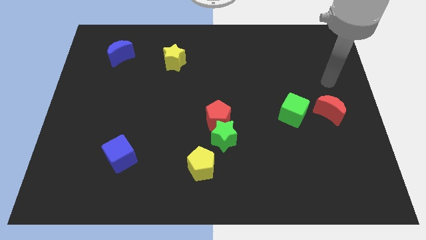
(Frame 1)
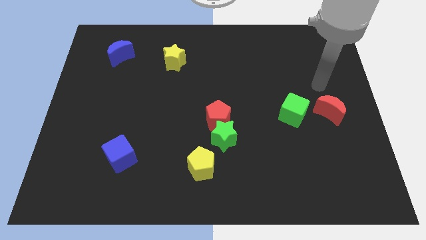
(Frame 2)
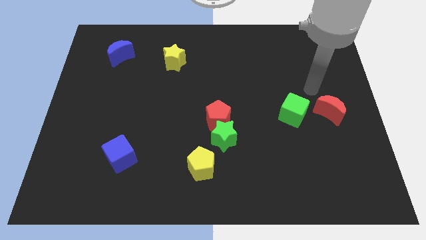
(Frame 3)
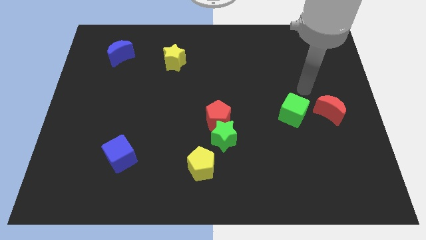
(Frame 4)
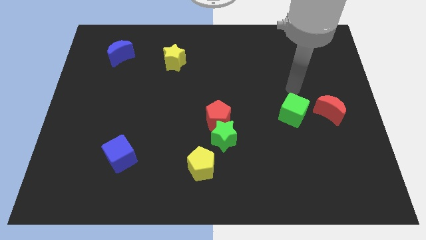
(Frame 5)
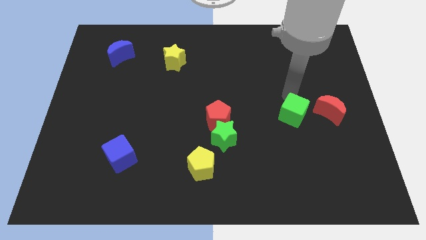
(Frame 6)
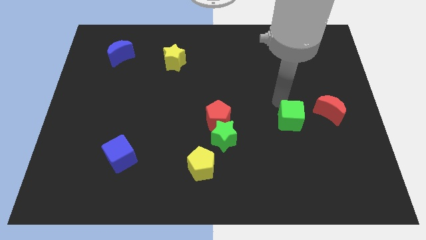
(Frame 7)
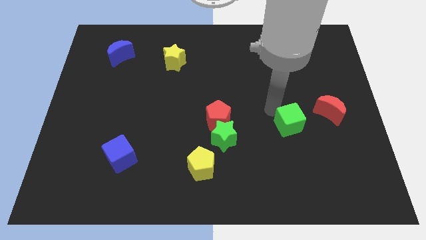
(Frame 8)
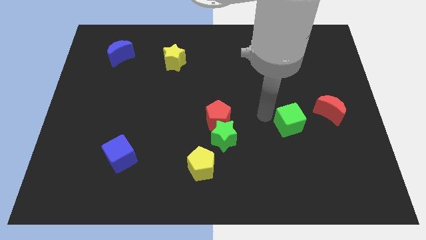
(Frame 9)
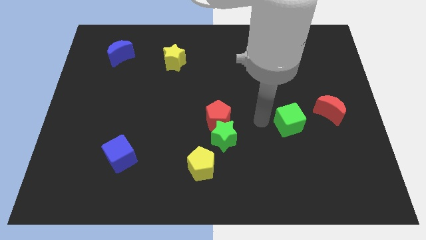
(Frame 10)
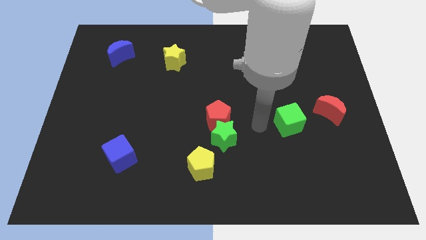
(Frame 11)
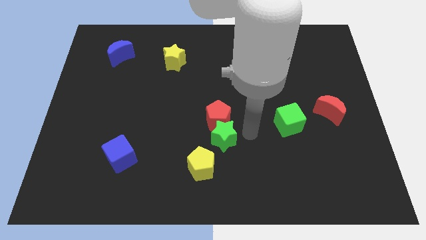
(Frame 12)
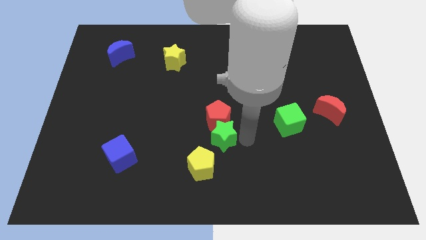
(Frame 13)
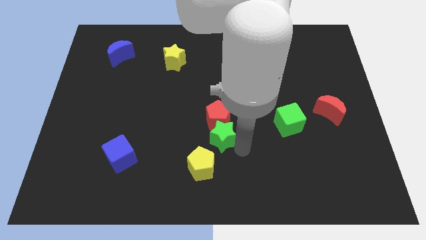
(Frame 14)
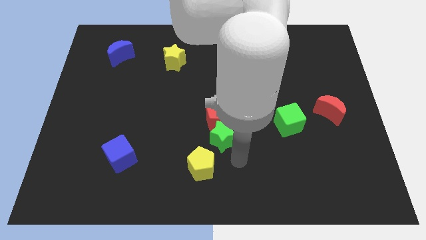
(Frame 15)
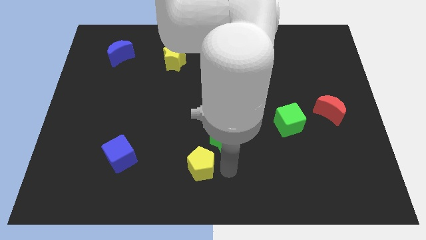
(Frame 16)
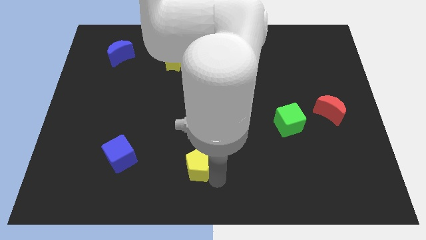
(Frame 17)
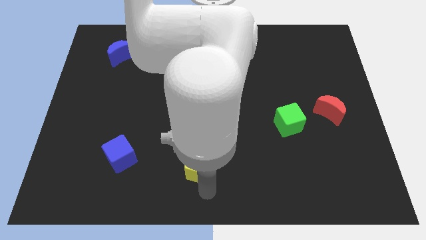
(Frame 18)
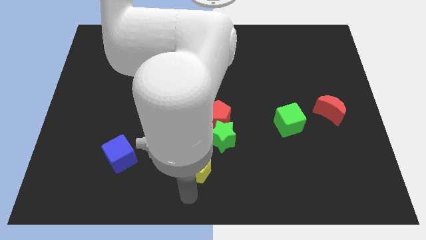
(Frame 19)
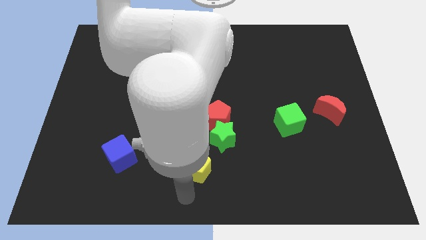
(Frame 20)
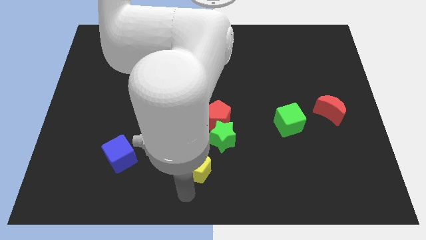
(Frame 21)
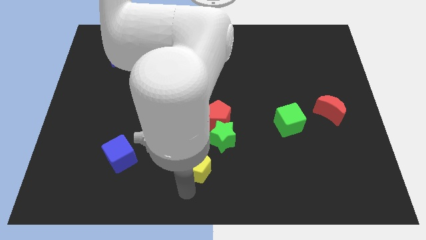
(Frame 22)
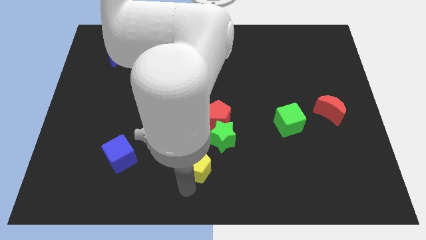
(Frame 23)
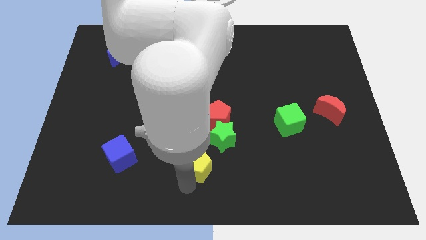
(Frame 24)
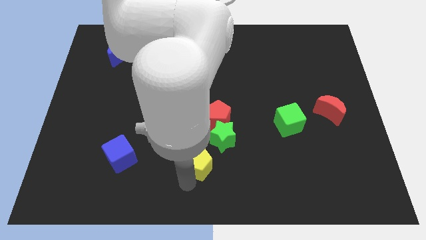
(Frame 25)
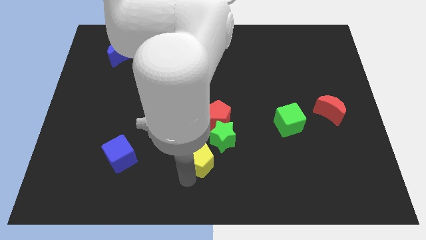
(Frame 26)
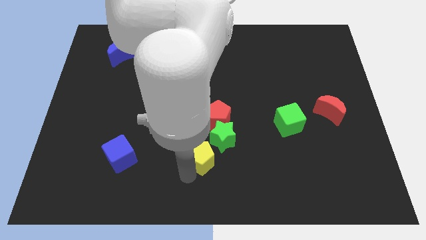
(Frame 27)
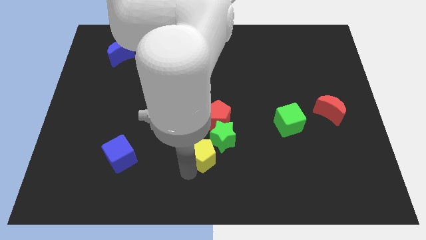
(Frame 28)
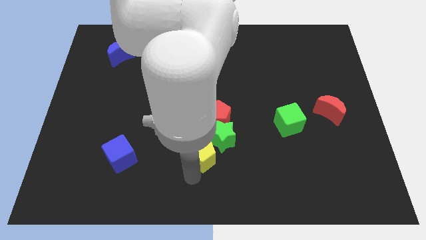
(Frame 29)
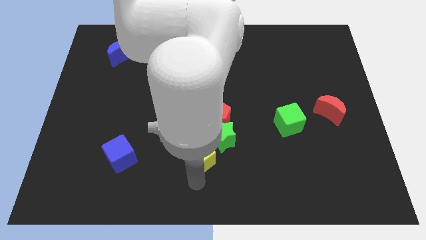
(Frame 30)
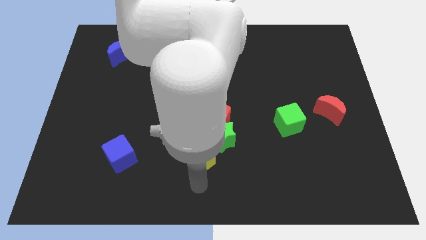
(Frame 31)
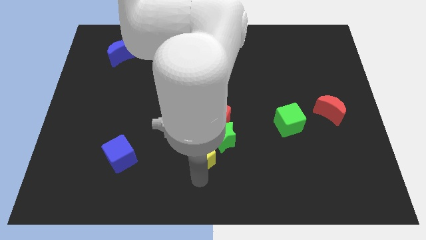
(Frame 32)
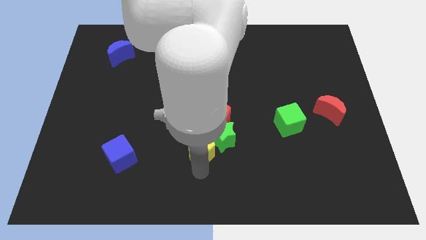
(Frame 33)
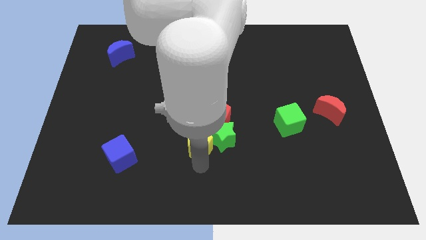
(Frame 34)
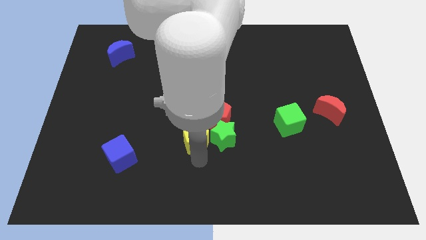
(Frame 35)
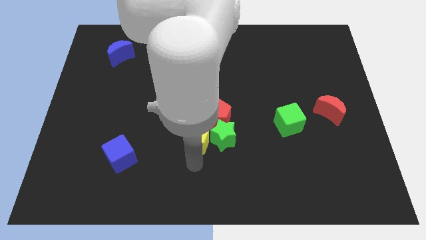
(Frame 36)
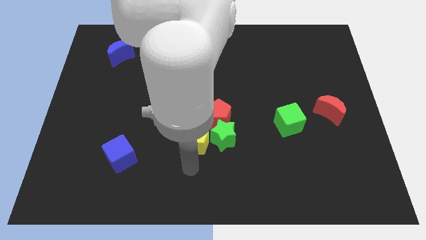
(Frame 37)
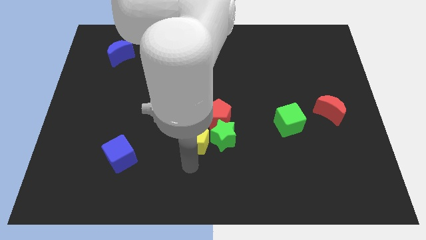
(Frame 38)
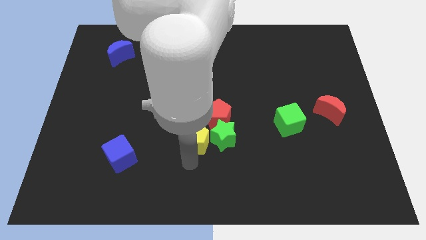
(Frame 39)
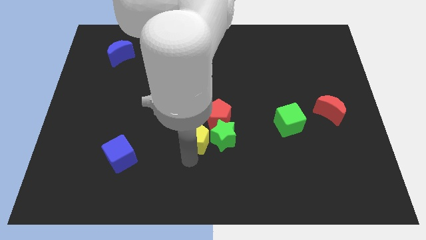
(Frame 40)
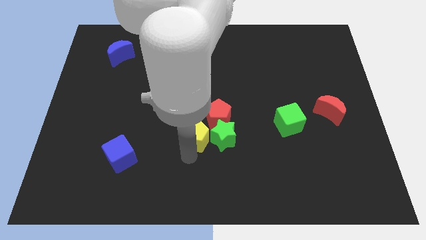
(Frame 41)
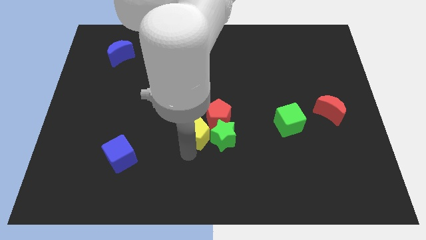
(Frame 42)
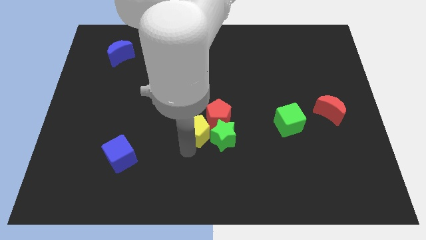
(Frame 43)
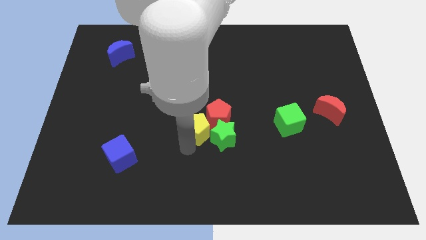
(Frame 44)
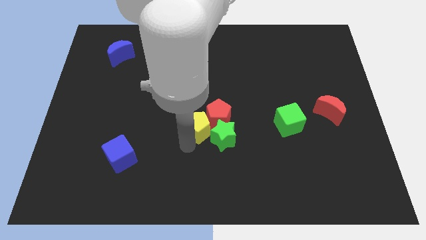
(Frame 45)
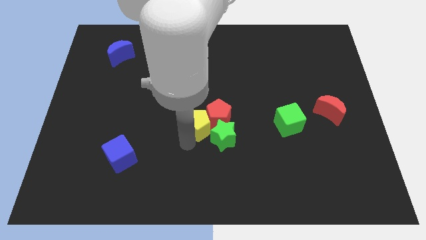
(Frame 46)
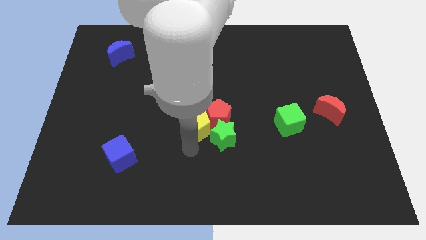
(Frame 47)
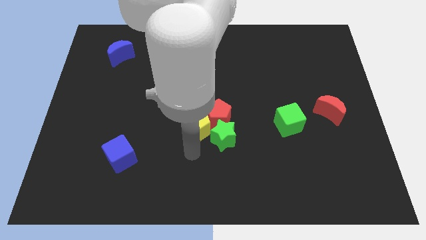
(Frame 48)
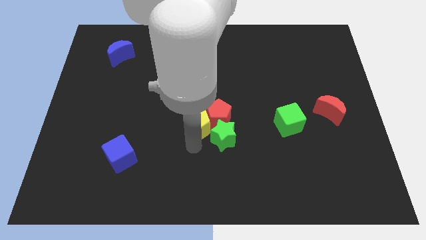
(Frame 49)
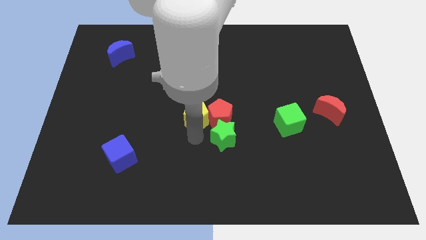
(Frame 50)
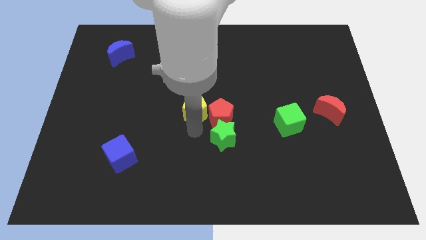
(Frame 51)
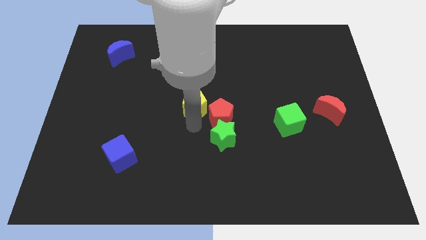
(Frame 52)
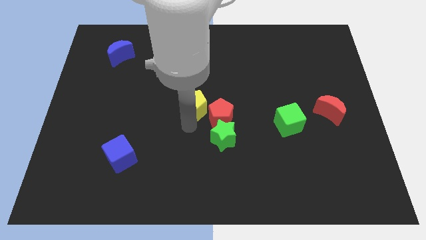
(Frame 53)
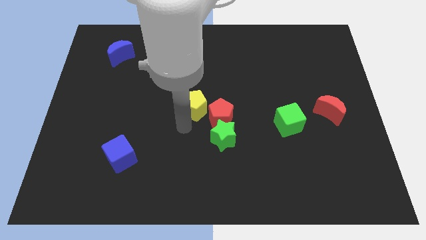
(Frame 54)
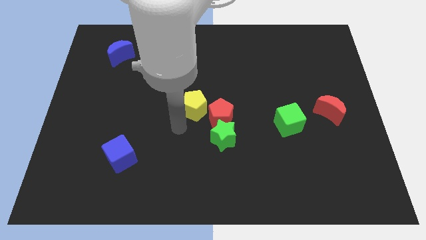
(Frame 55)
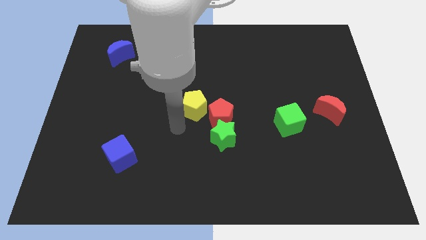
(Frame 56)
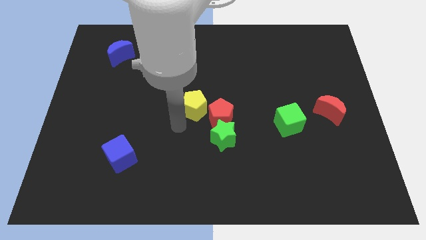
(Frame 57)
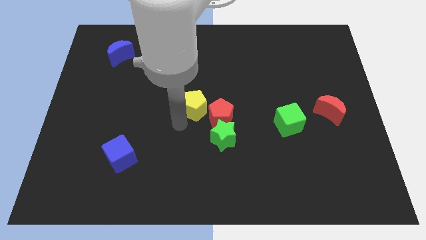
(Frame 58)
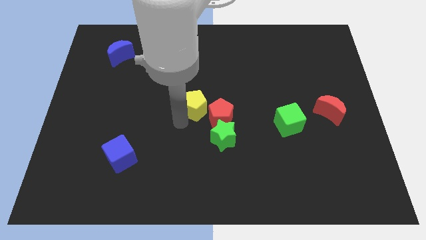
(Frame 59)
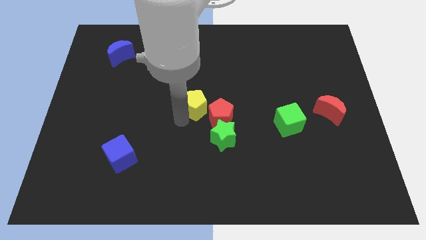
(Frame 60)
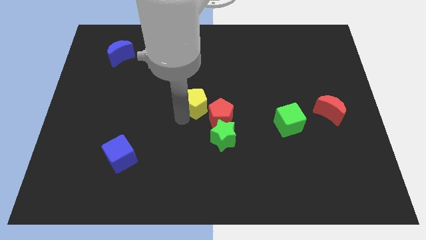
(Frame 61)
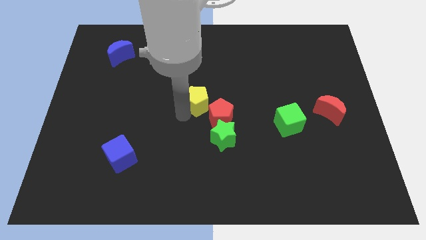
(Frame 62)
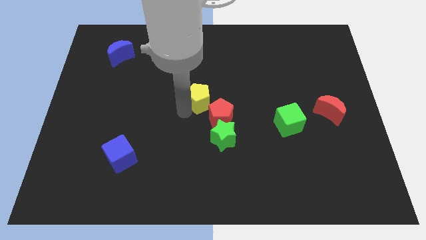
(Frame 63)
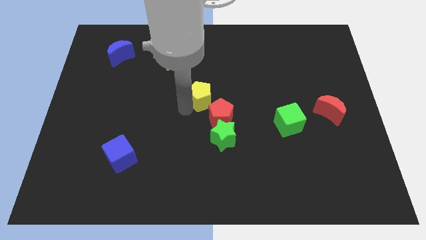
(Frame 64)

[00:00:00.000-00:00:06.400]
slide the yellow pentagon above the red pentagon
